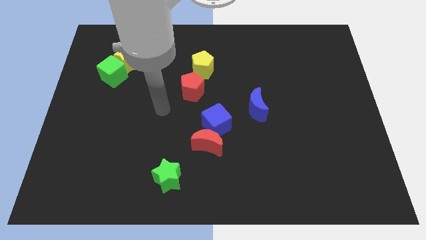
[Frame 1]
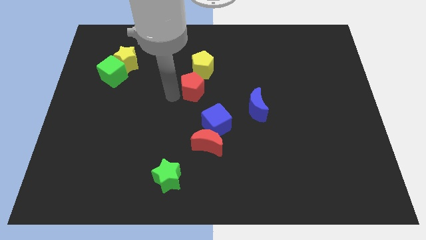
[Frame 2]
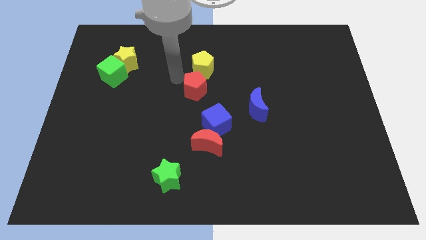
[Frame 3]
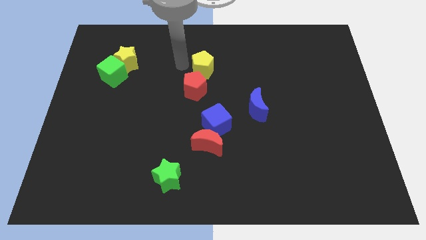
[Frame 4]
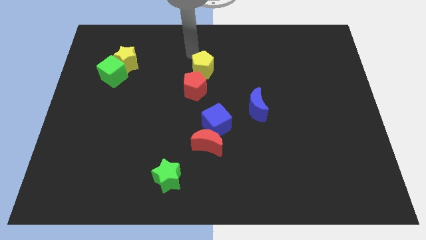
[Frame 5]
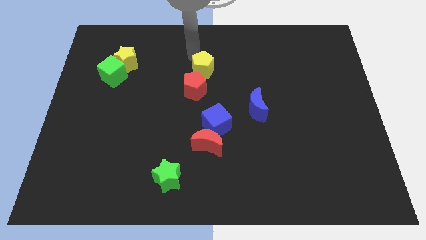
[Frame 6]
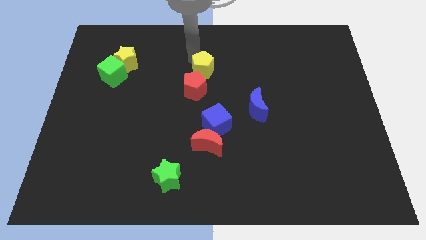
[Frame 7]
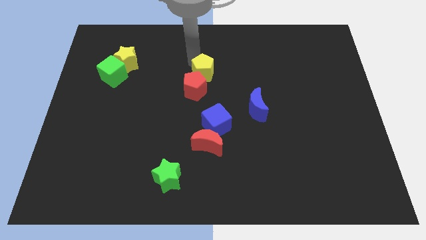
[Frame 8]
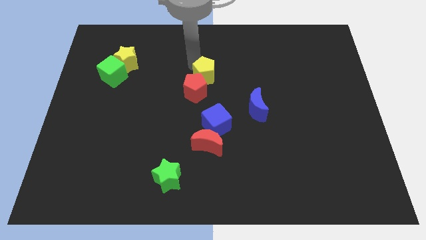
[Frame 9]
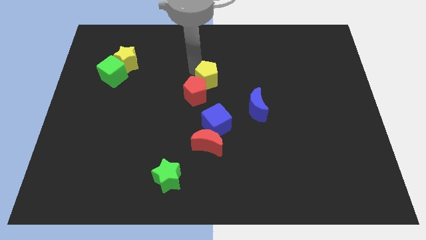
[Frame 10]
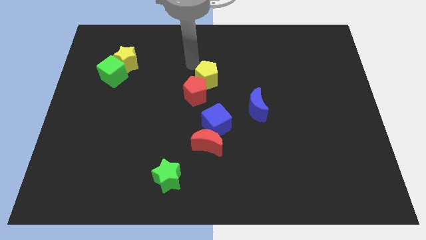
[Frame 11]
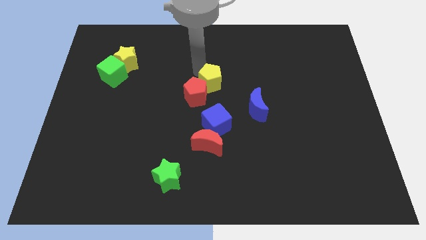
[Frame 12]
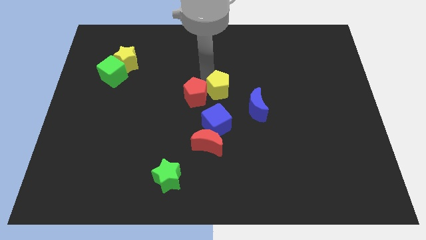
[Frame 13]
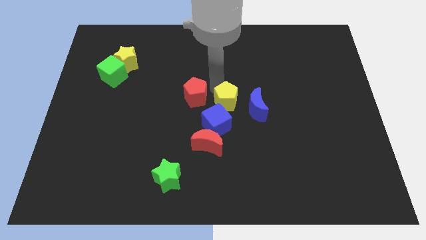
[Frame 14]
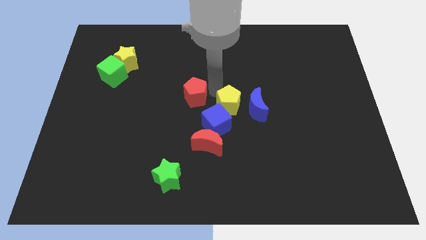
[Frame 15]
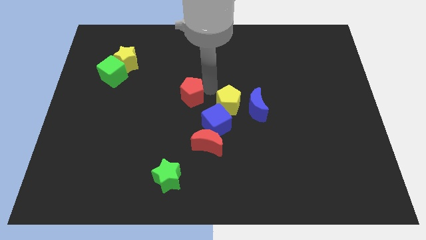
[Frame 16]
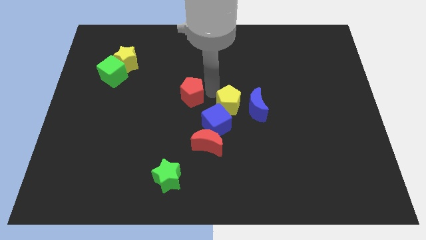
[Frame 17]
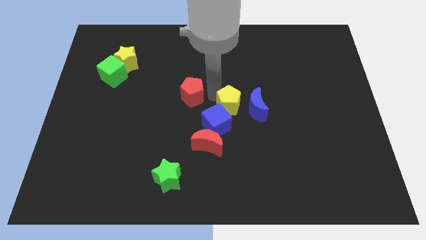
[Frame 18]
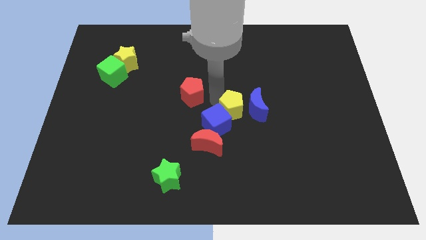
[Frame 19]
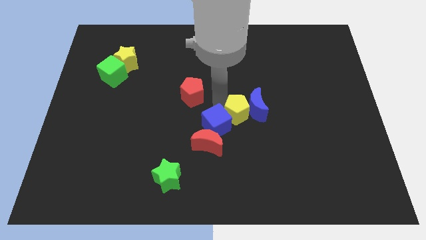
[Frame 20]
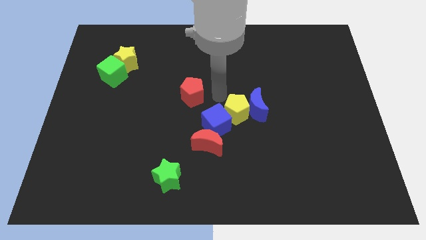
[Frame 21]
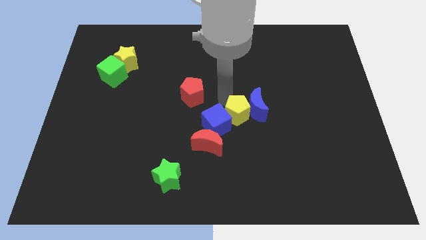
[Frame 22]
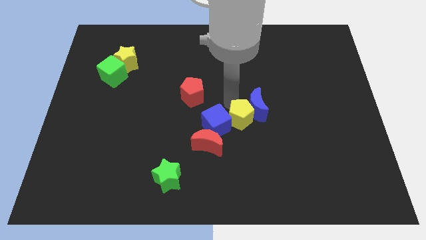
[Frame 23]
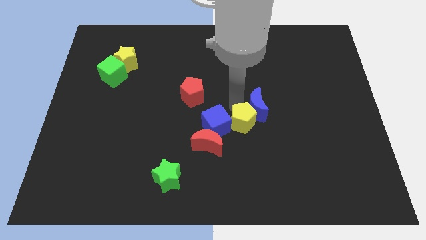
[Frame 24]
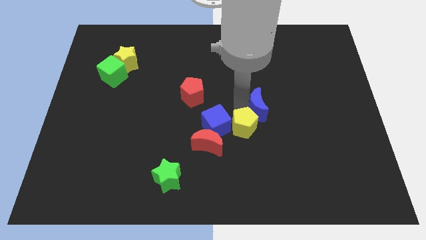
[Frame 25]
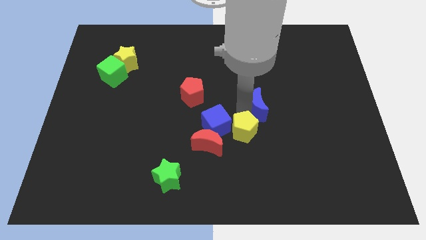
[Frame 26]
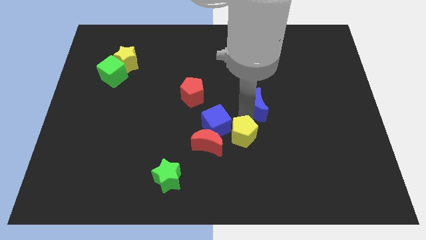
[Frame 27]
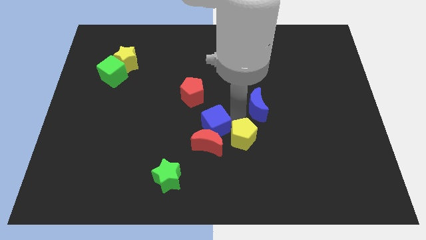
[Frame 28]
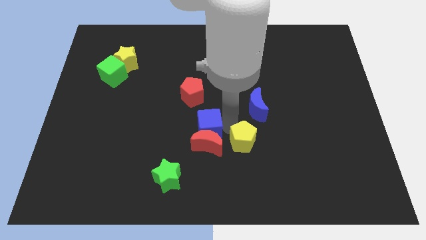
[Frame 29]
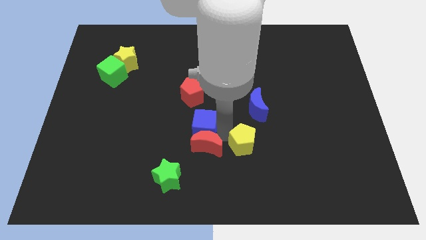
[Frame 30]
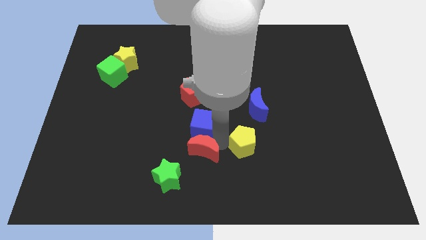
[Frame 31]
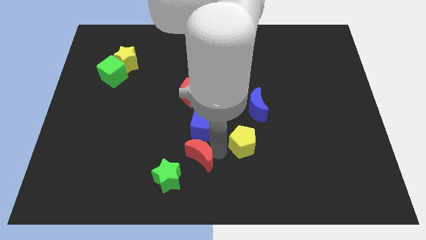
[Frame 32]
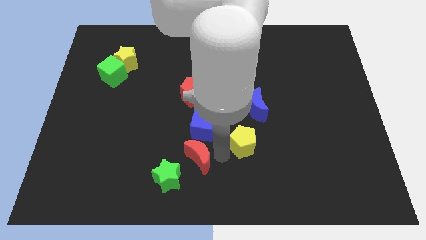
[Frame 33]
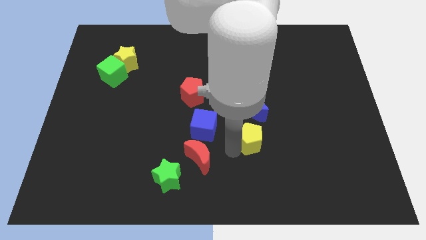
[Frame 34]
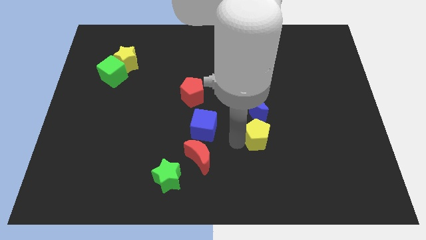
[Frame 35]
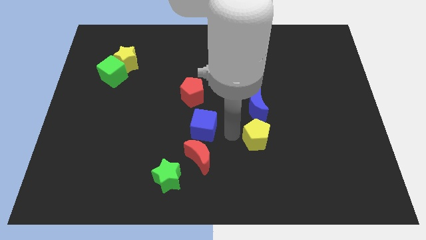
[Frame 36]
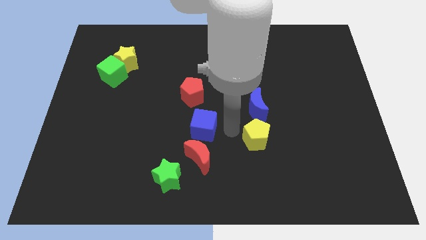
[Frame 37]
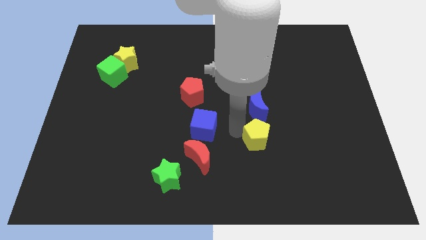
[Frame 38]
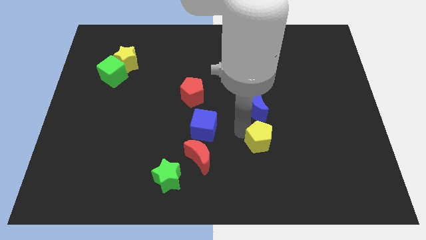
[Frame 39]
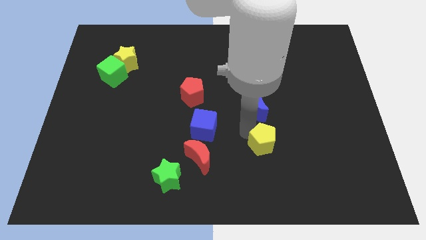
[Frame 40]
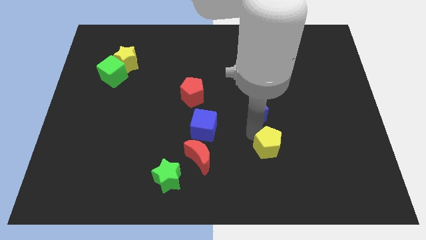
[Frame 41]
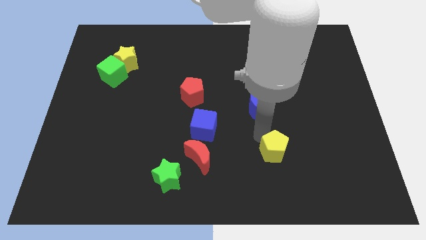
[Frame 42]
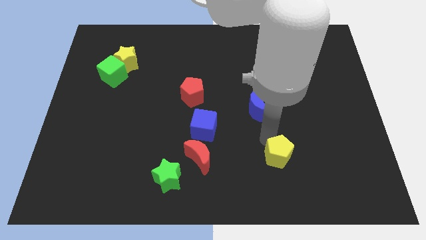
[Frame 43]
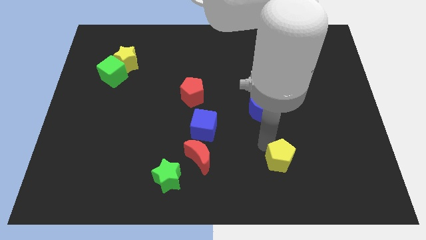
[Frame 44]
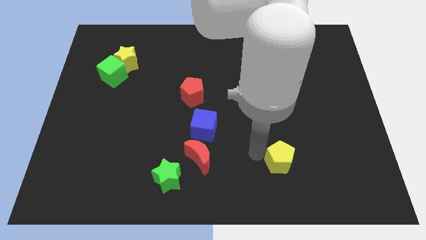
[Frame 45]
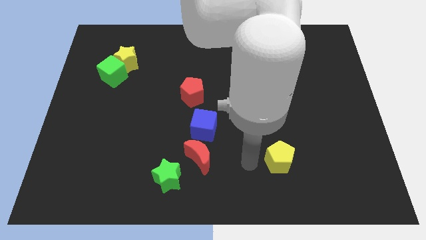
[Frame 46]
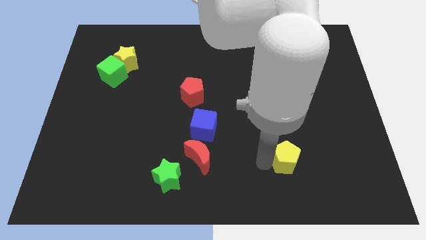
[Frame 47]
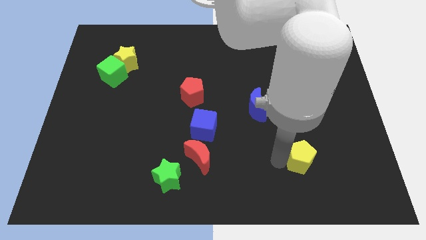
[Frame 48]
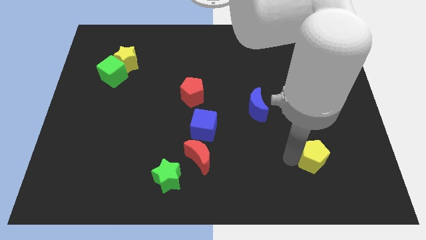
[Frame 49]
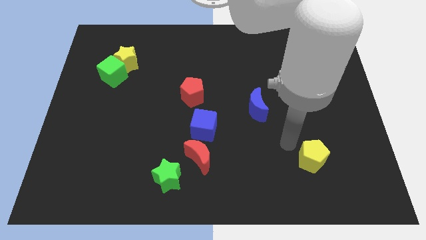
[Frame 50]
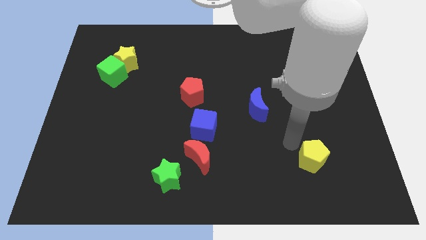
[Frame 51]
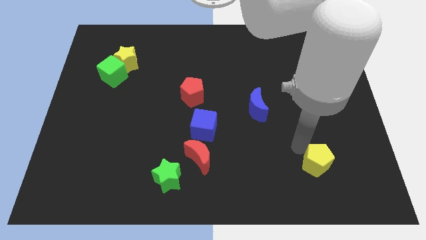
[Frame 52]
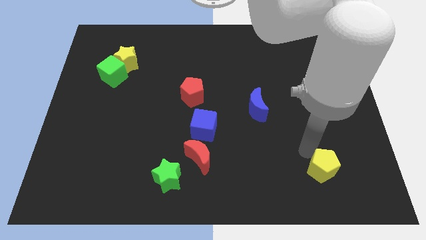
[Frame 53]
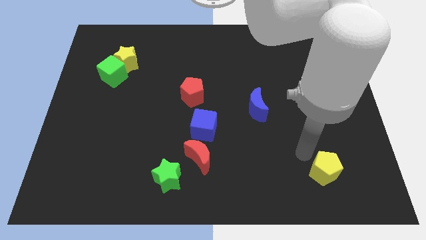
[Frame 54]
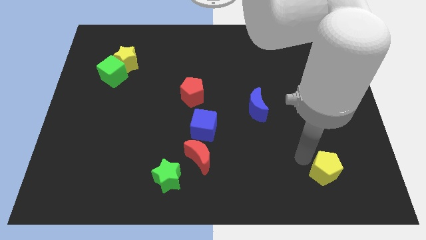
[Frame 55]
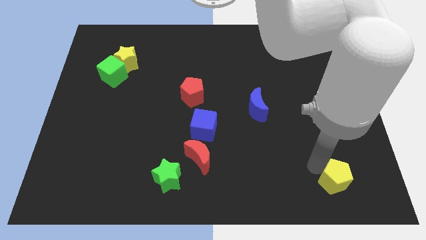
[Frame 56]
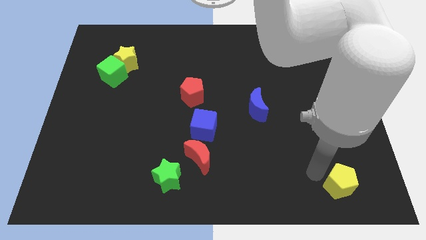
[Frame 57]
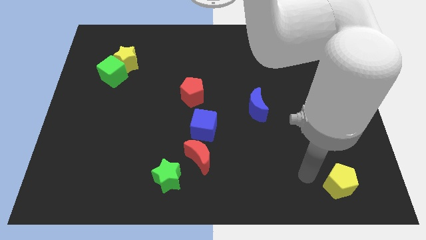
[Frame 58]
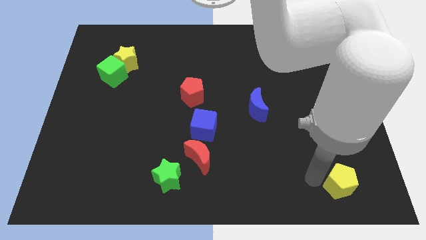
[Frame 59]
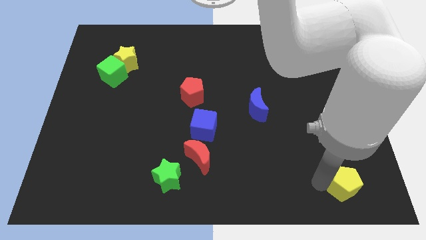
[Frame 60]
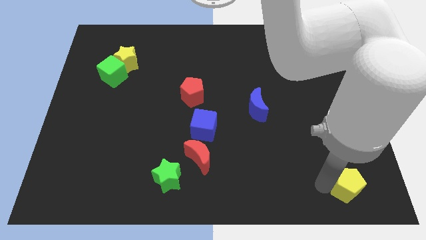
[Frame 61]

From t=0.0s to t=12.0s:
slide the yellow pentagon to the bottom right of the board

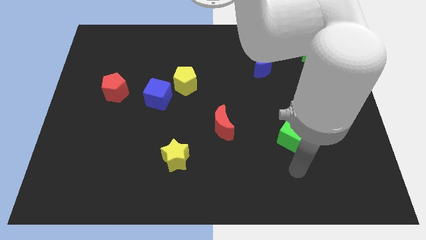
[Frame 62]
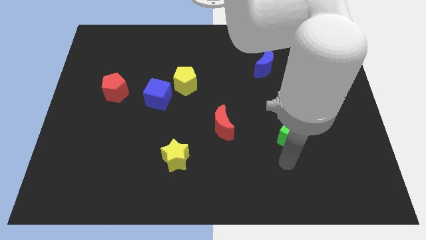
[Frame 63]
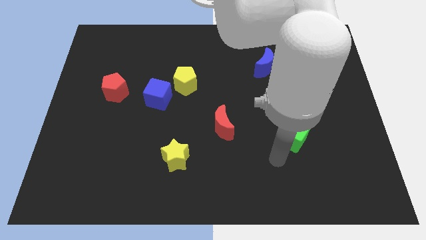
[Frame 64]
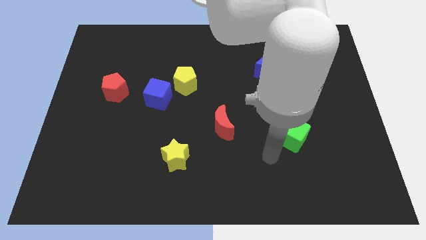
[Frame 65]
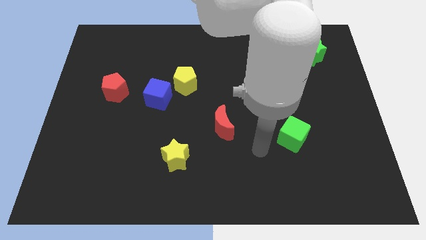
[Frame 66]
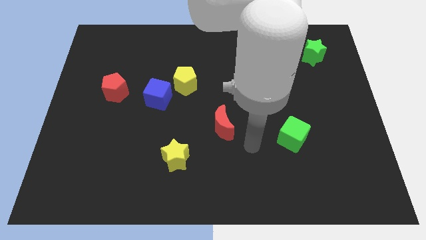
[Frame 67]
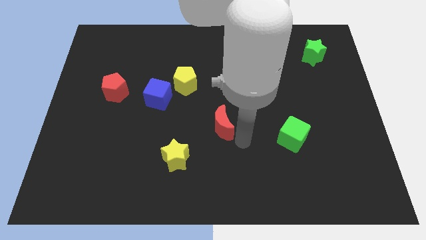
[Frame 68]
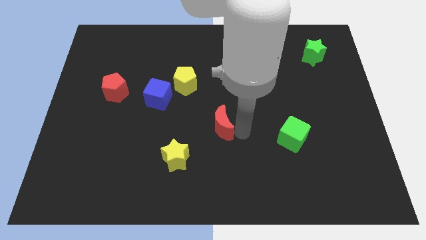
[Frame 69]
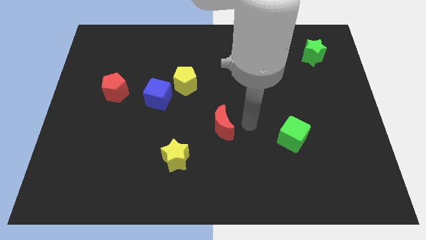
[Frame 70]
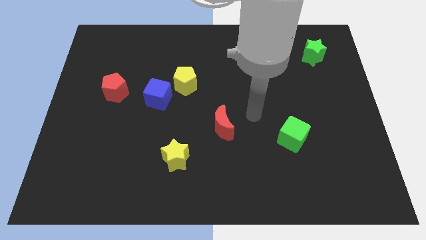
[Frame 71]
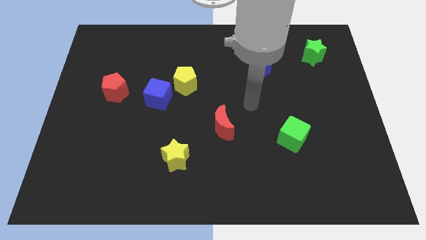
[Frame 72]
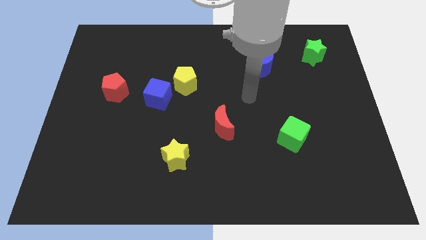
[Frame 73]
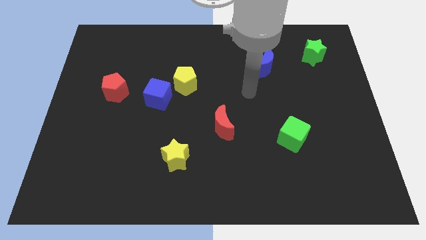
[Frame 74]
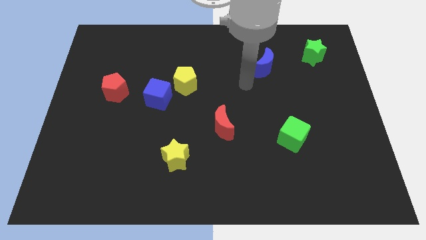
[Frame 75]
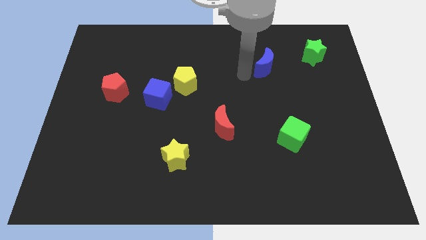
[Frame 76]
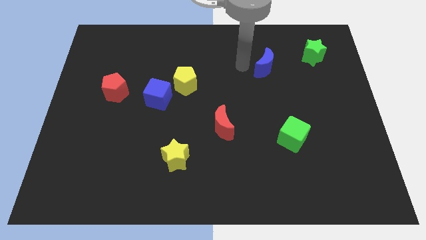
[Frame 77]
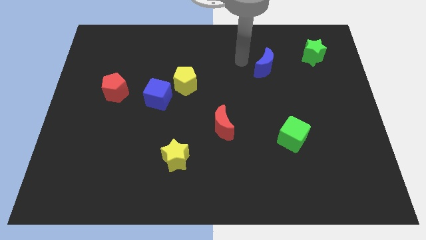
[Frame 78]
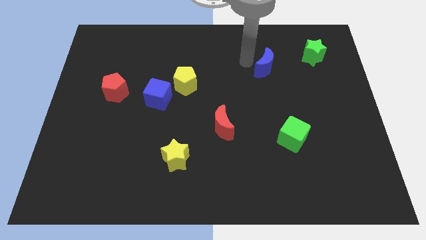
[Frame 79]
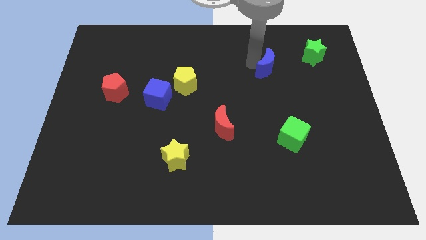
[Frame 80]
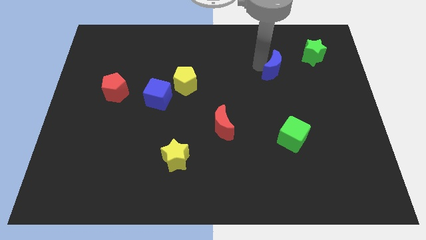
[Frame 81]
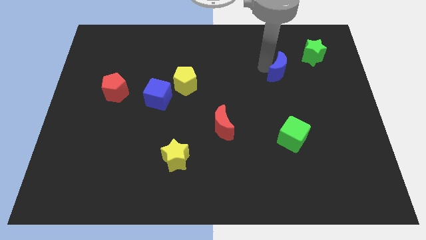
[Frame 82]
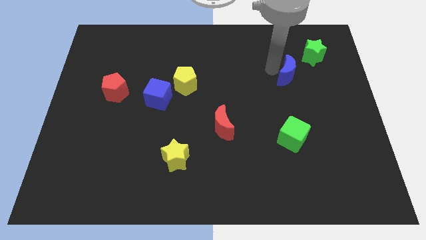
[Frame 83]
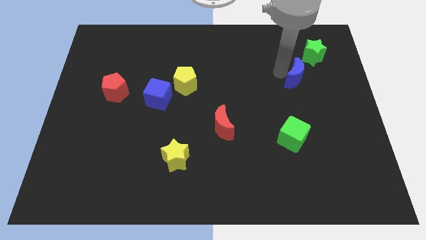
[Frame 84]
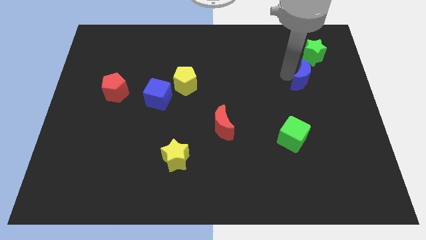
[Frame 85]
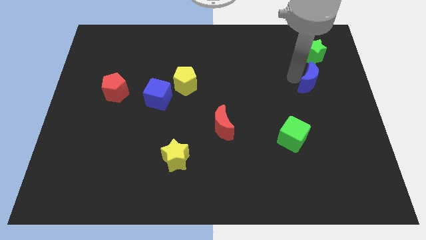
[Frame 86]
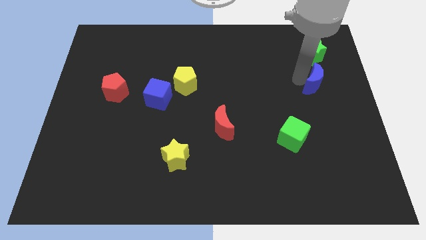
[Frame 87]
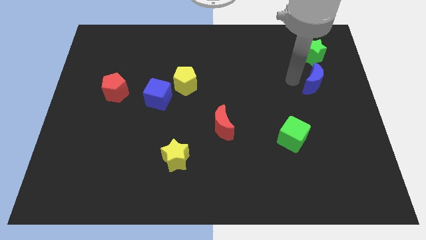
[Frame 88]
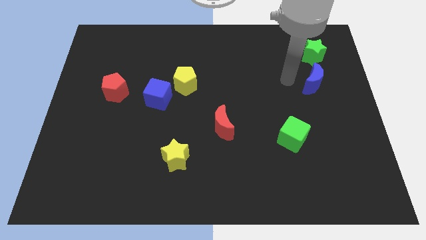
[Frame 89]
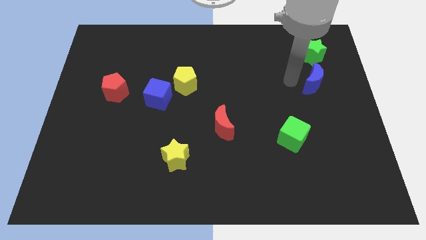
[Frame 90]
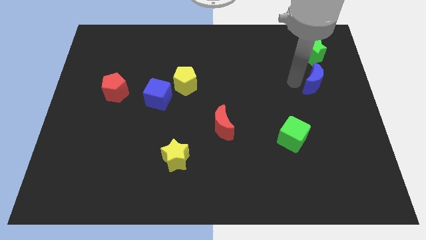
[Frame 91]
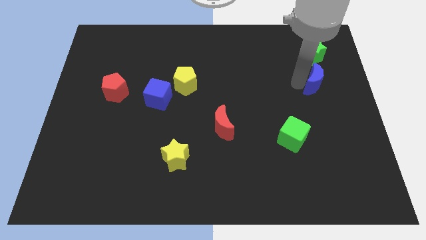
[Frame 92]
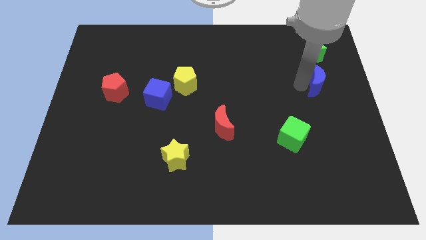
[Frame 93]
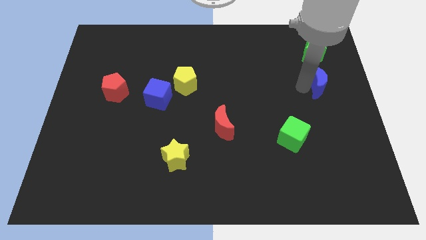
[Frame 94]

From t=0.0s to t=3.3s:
slide the blue moon to the right side of the board
